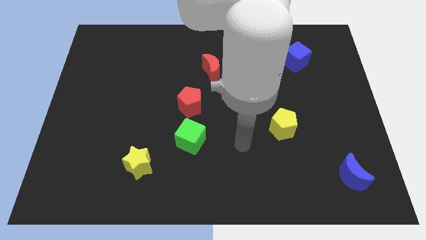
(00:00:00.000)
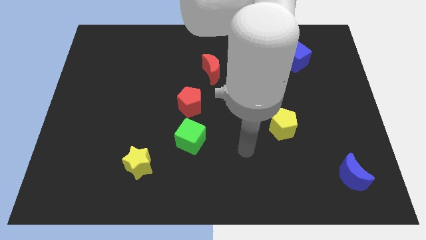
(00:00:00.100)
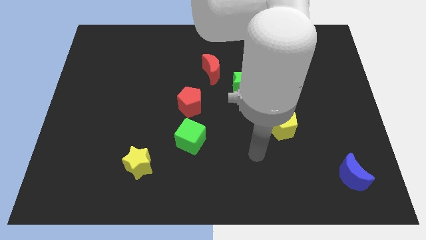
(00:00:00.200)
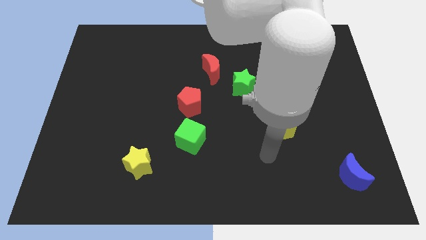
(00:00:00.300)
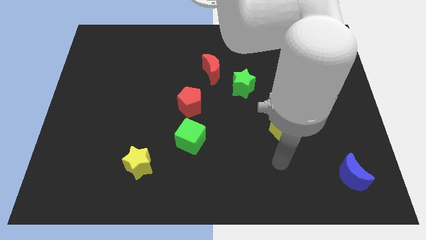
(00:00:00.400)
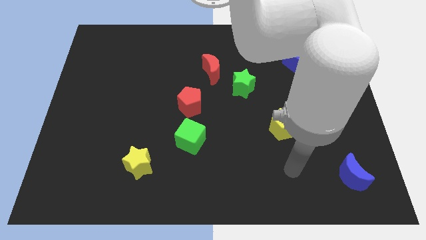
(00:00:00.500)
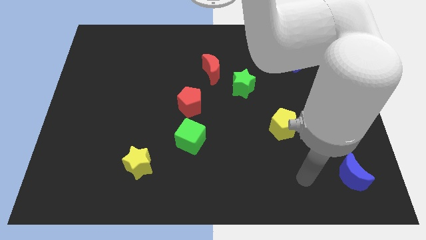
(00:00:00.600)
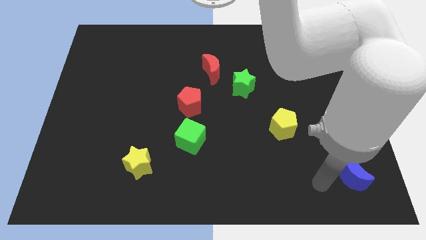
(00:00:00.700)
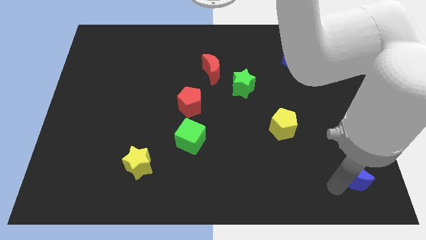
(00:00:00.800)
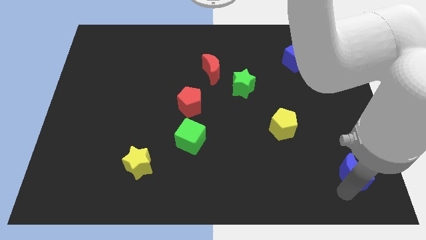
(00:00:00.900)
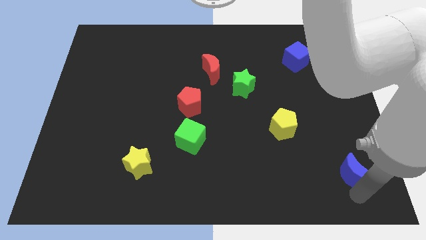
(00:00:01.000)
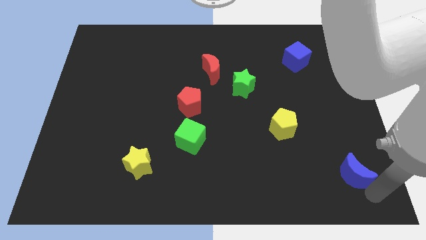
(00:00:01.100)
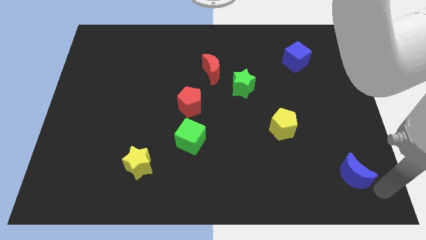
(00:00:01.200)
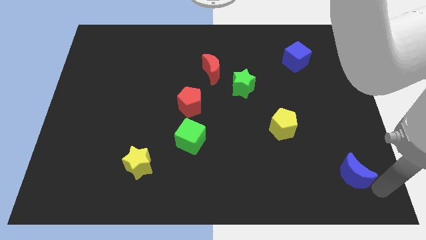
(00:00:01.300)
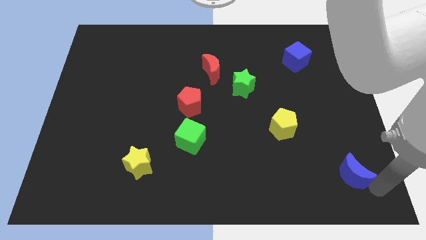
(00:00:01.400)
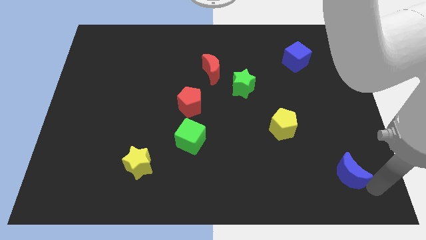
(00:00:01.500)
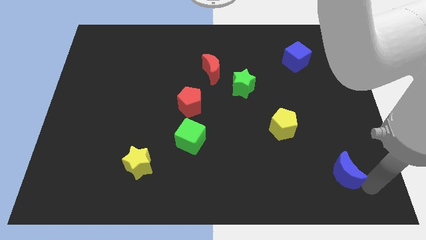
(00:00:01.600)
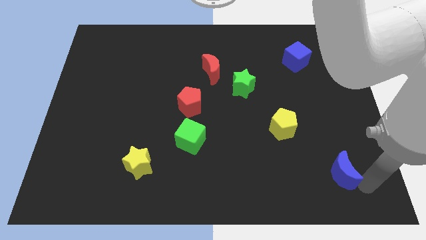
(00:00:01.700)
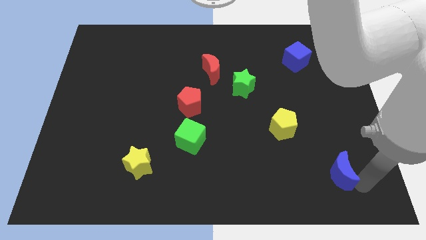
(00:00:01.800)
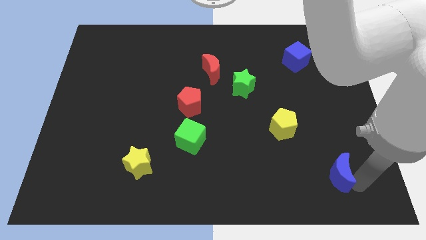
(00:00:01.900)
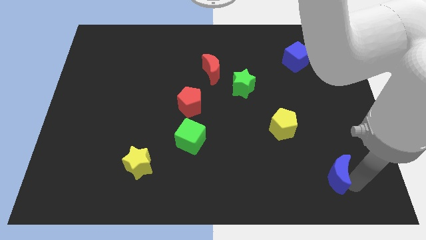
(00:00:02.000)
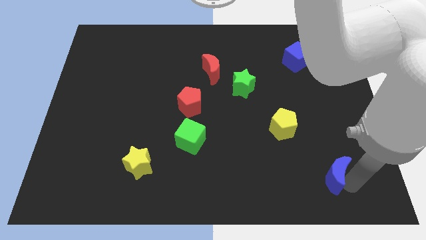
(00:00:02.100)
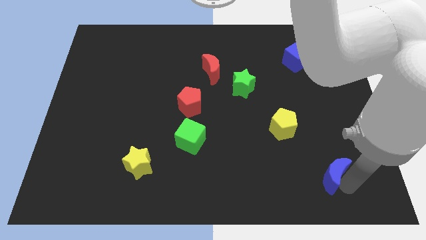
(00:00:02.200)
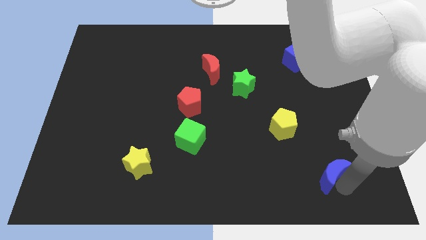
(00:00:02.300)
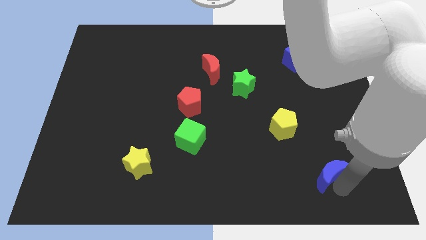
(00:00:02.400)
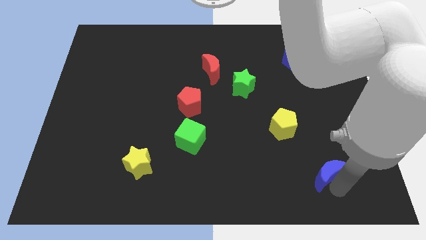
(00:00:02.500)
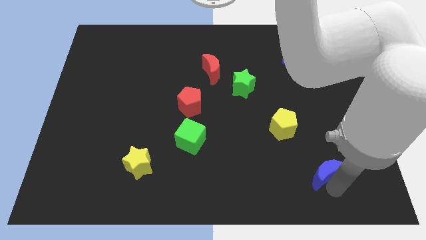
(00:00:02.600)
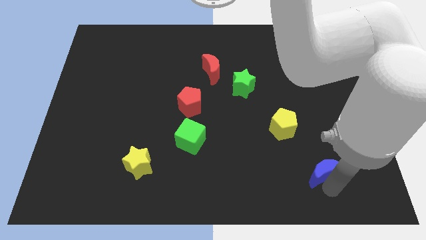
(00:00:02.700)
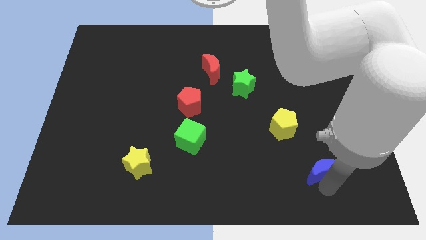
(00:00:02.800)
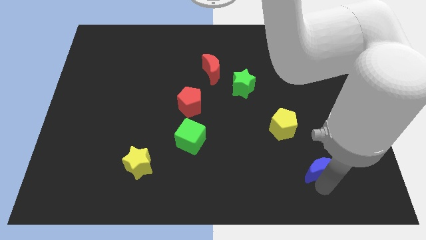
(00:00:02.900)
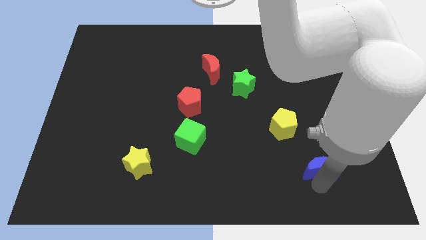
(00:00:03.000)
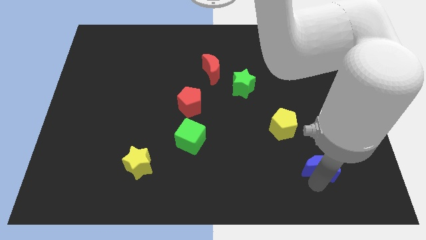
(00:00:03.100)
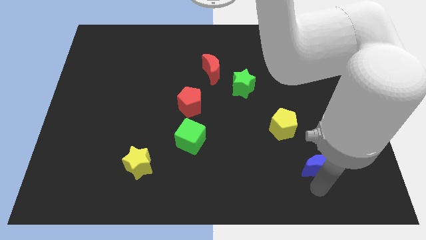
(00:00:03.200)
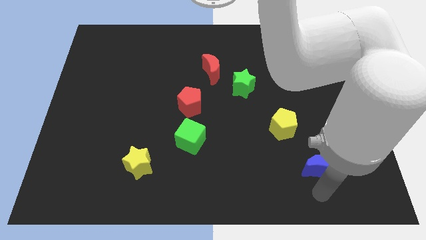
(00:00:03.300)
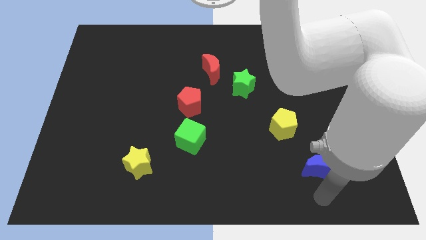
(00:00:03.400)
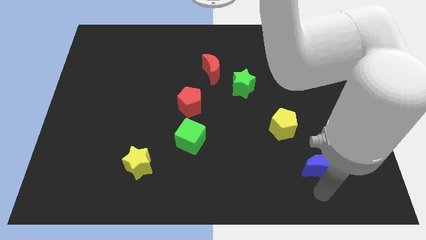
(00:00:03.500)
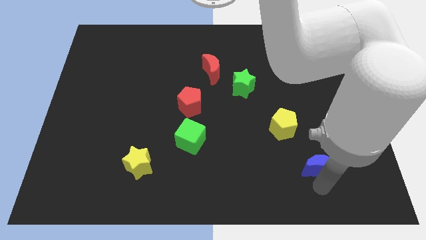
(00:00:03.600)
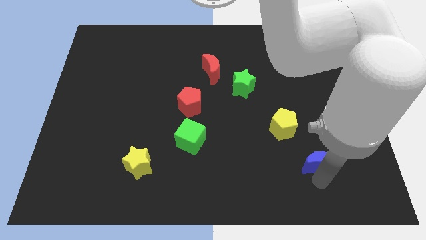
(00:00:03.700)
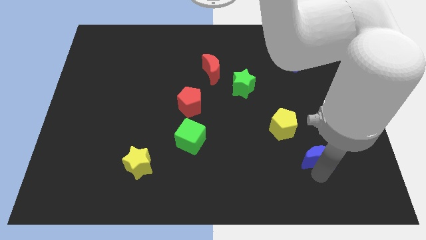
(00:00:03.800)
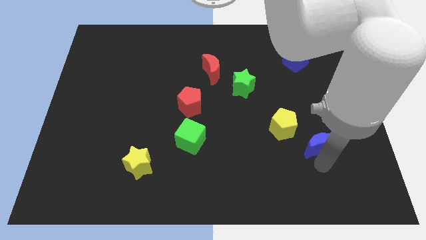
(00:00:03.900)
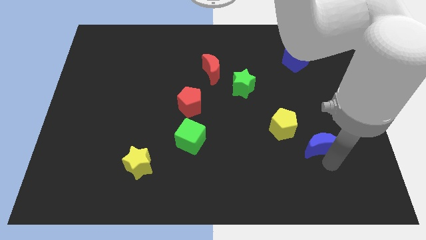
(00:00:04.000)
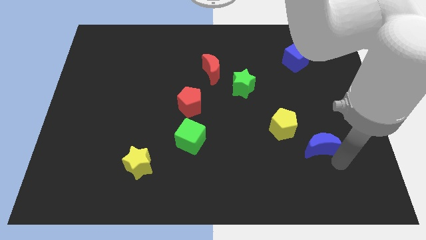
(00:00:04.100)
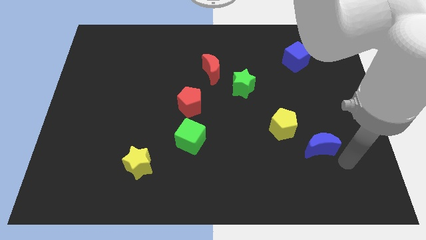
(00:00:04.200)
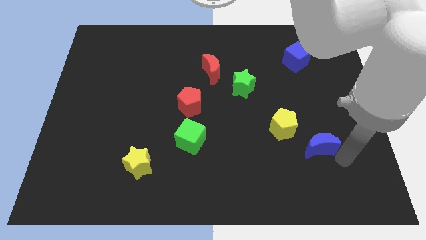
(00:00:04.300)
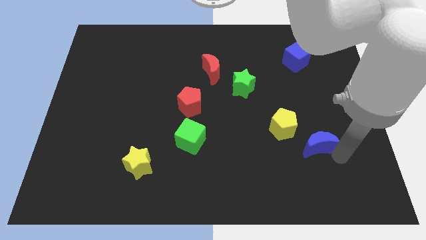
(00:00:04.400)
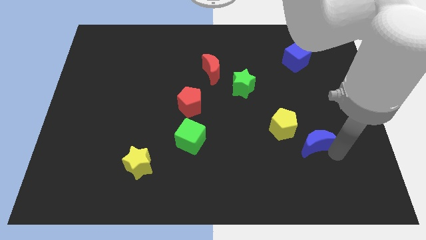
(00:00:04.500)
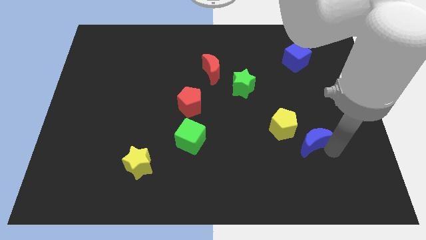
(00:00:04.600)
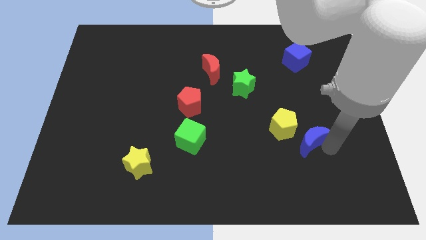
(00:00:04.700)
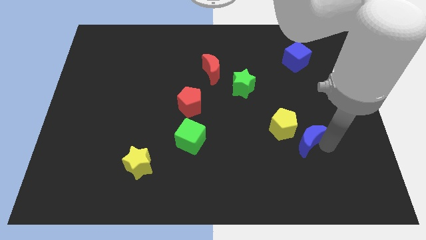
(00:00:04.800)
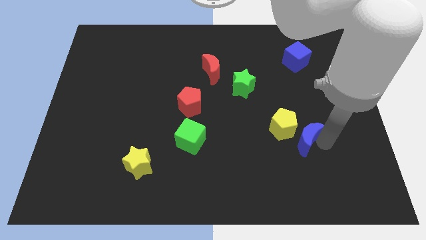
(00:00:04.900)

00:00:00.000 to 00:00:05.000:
put the blue moon next to the yellow pentagon

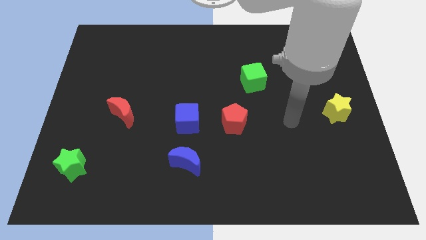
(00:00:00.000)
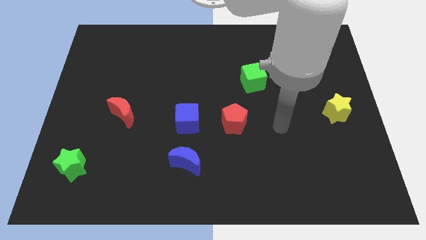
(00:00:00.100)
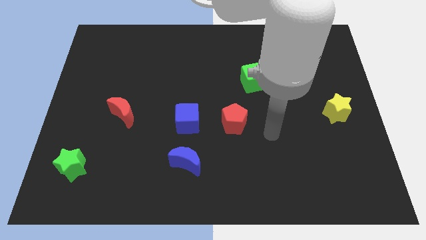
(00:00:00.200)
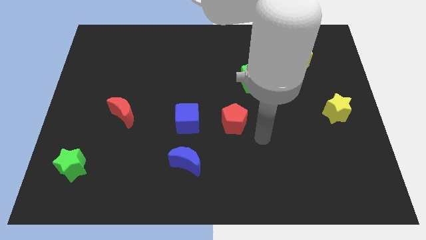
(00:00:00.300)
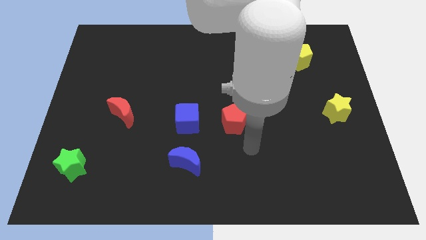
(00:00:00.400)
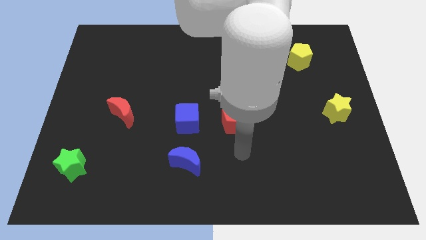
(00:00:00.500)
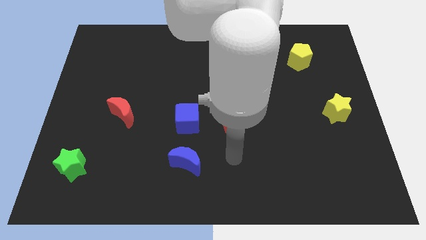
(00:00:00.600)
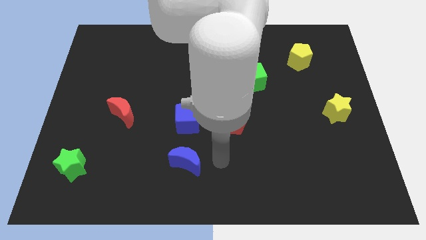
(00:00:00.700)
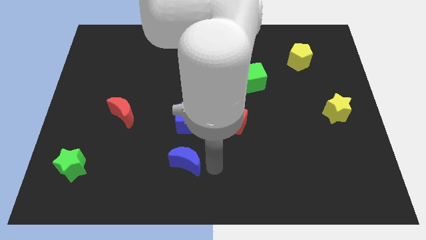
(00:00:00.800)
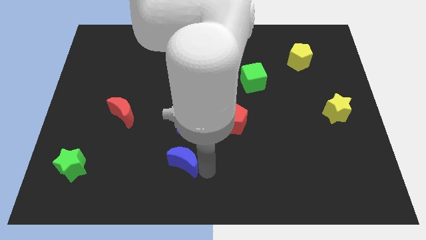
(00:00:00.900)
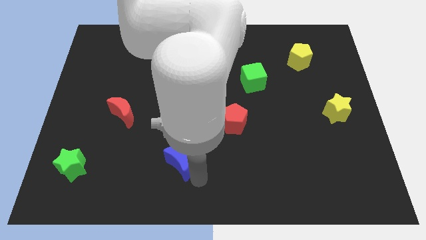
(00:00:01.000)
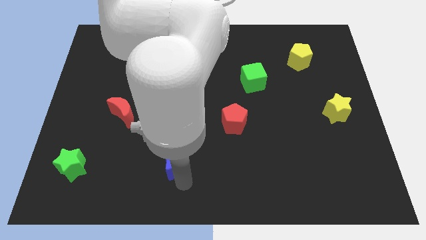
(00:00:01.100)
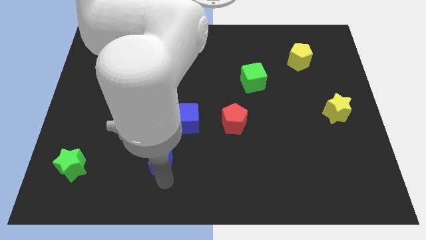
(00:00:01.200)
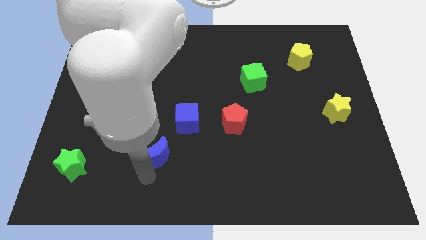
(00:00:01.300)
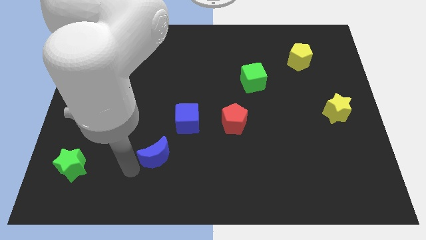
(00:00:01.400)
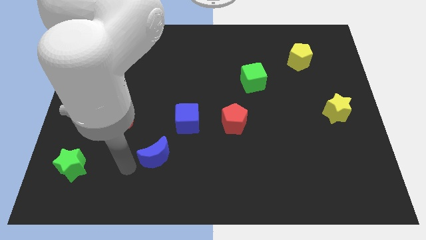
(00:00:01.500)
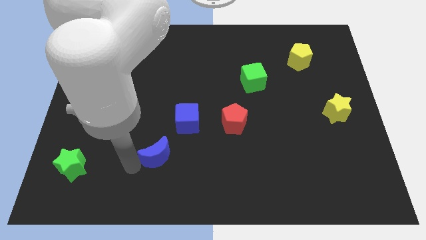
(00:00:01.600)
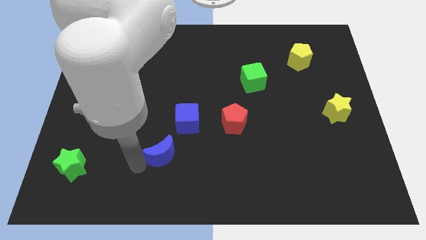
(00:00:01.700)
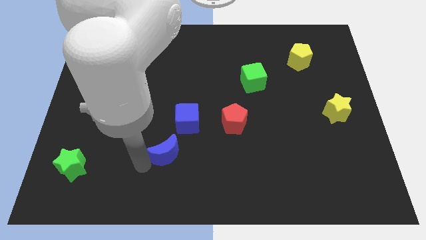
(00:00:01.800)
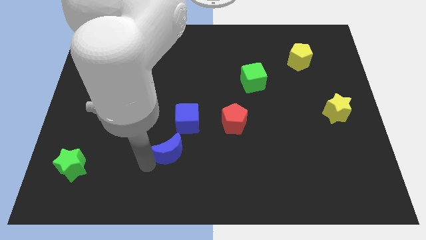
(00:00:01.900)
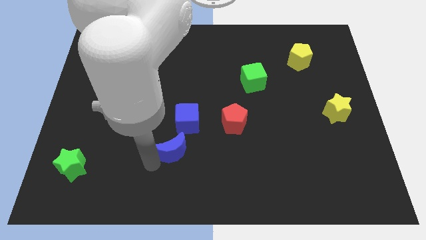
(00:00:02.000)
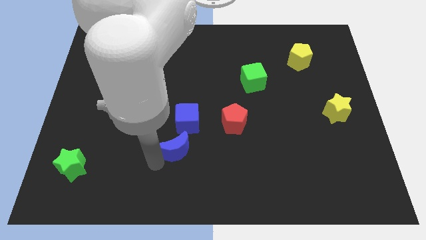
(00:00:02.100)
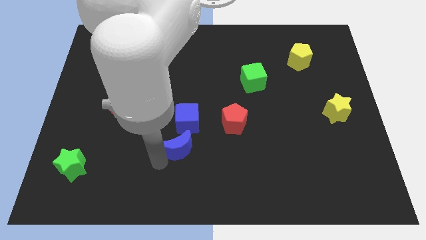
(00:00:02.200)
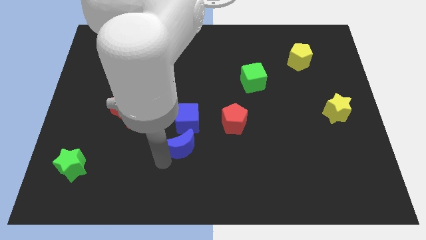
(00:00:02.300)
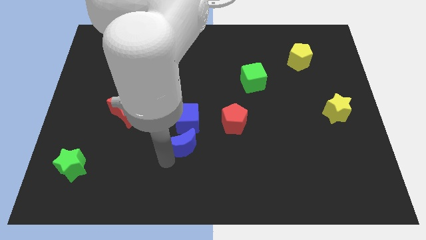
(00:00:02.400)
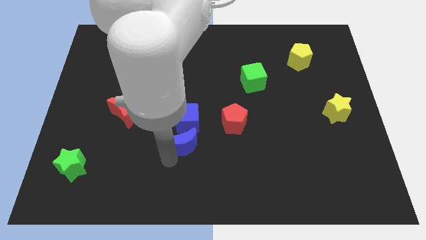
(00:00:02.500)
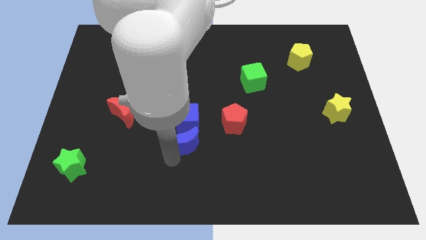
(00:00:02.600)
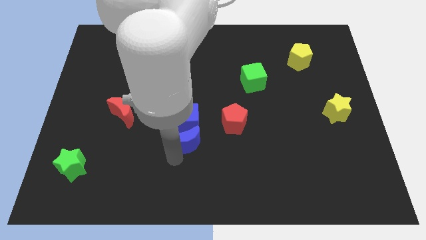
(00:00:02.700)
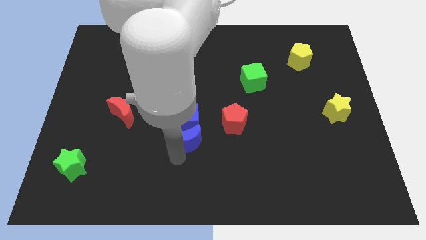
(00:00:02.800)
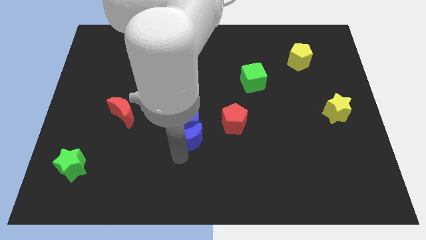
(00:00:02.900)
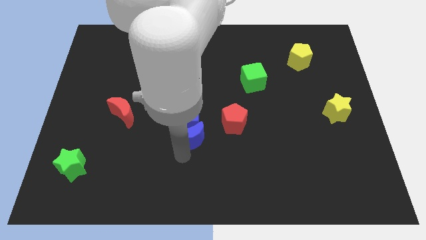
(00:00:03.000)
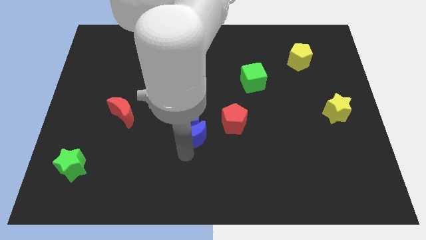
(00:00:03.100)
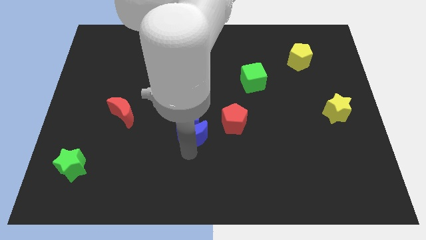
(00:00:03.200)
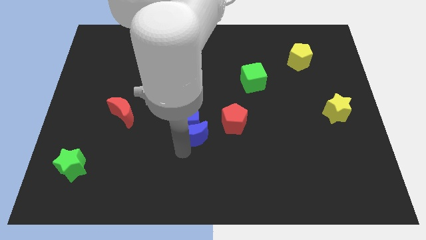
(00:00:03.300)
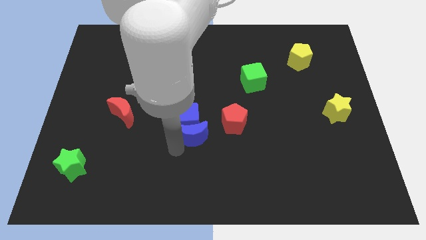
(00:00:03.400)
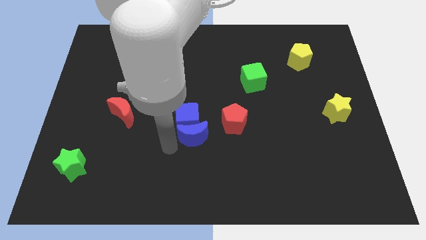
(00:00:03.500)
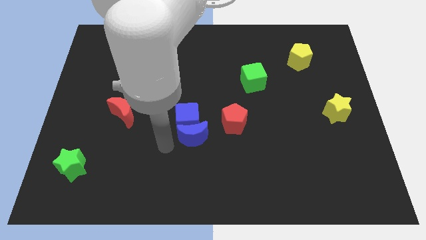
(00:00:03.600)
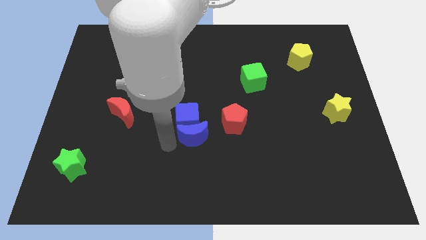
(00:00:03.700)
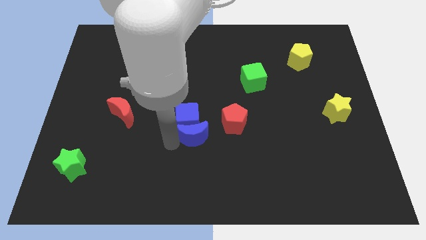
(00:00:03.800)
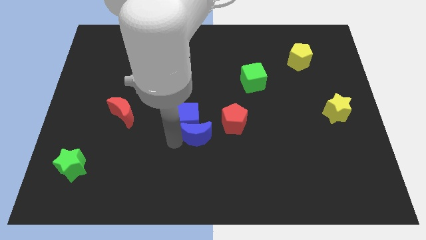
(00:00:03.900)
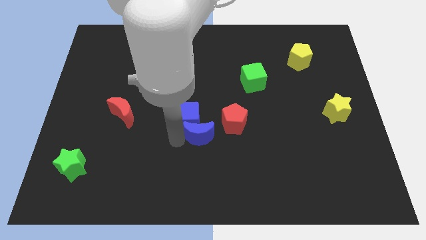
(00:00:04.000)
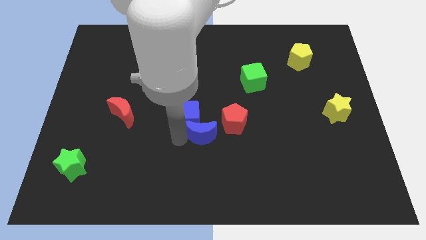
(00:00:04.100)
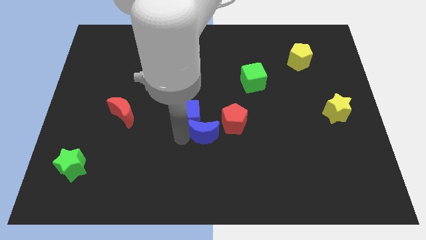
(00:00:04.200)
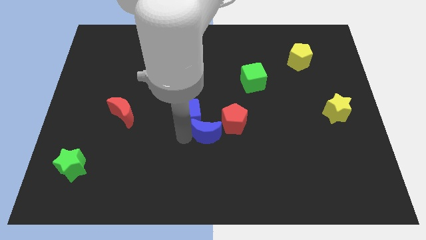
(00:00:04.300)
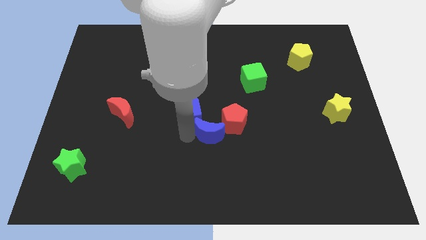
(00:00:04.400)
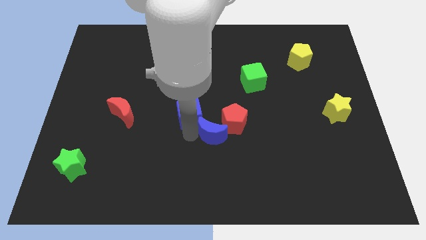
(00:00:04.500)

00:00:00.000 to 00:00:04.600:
push the blue moon to the red pentagon
